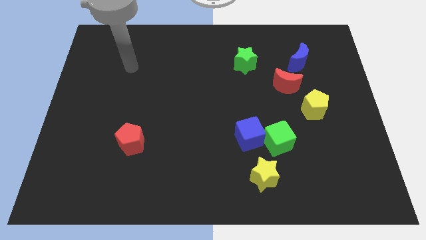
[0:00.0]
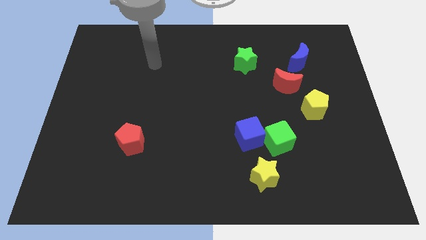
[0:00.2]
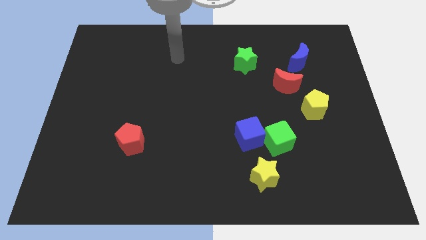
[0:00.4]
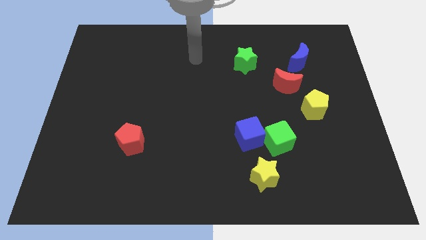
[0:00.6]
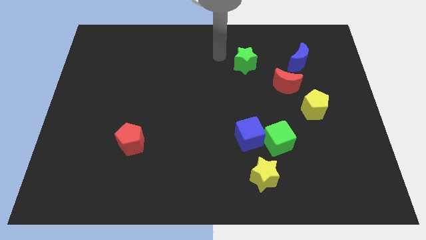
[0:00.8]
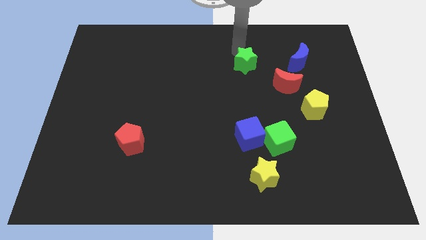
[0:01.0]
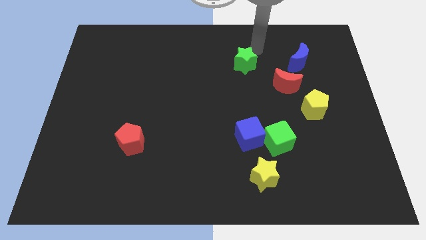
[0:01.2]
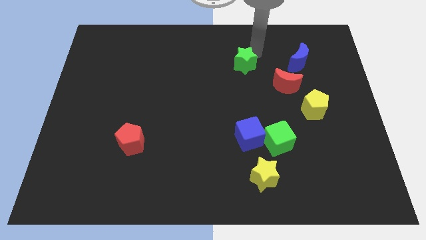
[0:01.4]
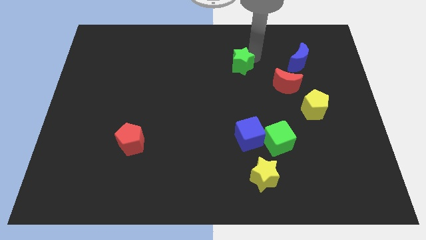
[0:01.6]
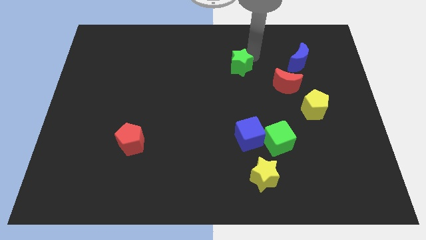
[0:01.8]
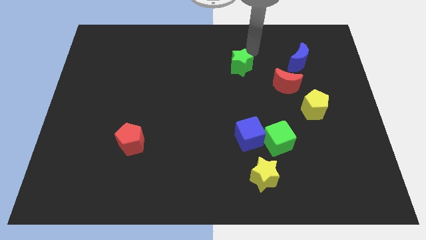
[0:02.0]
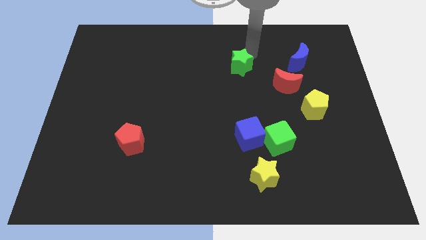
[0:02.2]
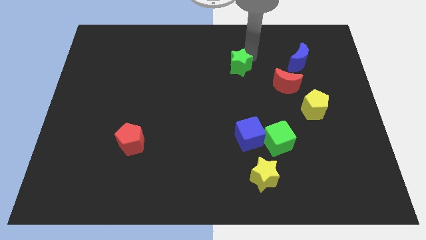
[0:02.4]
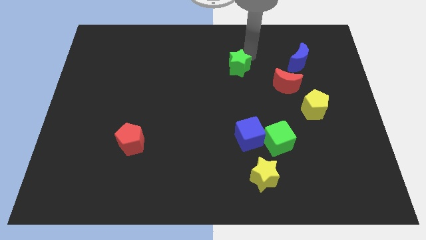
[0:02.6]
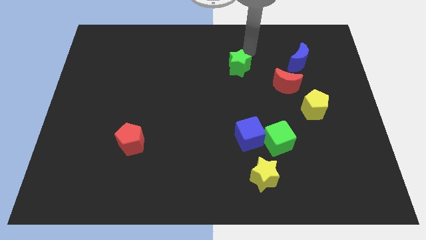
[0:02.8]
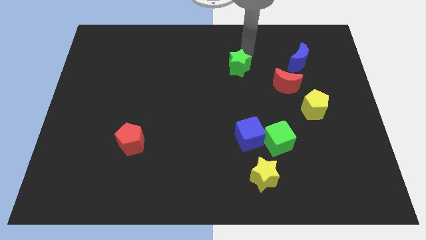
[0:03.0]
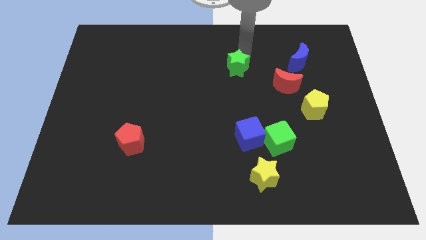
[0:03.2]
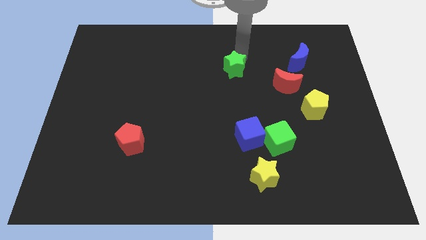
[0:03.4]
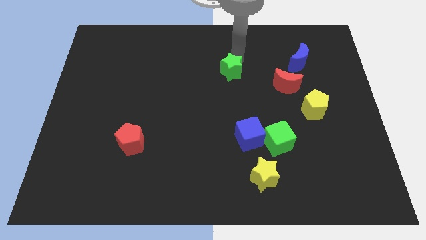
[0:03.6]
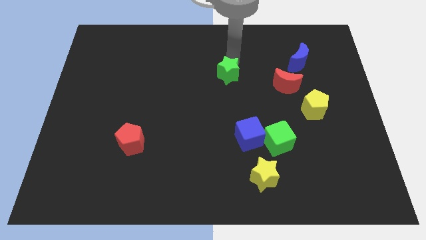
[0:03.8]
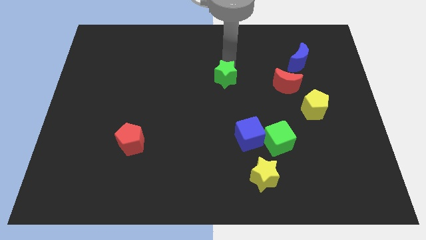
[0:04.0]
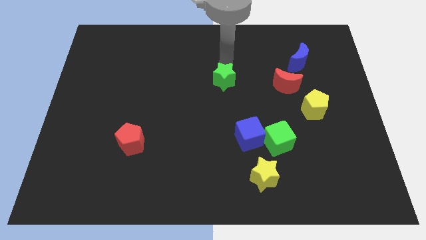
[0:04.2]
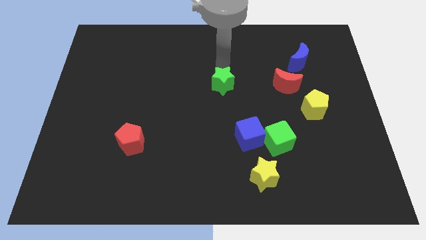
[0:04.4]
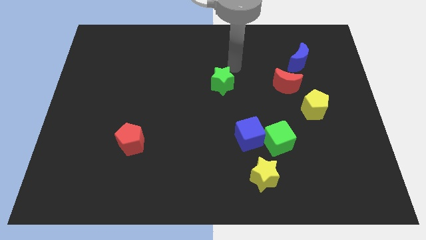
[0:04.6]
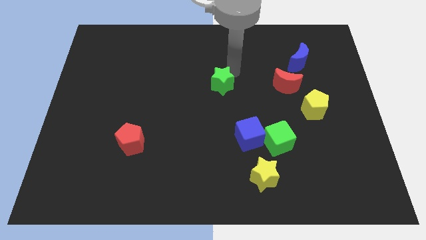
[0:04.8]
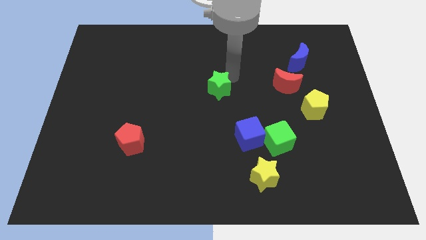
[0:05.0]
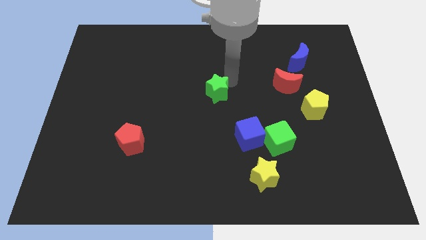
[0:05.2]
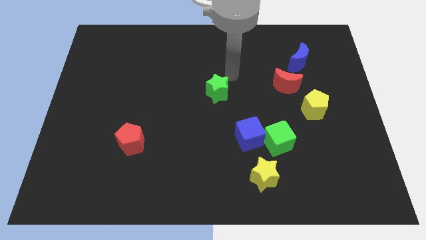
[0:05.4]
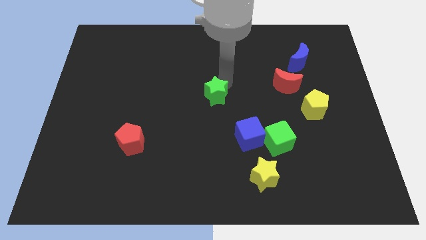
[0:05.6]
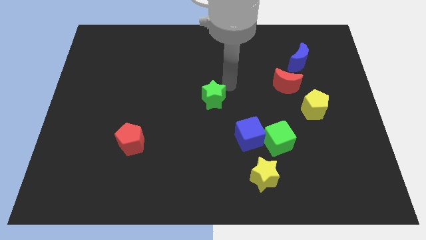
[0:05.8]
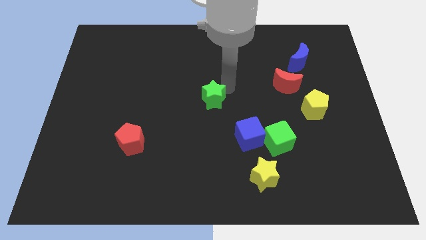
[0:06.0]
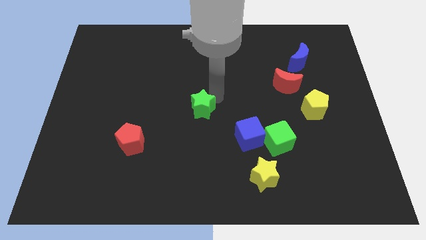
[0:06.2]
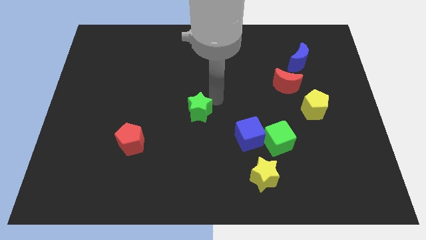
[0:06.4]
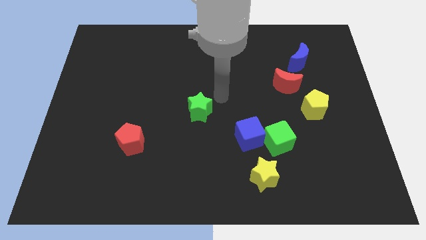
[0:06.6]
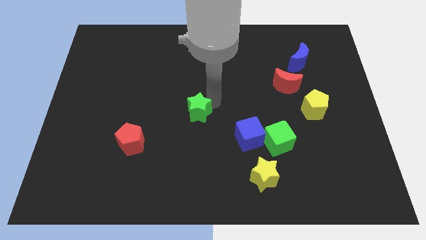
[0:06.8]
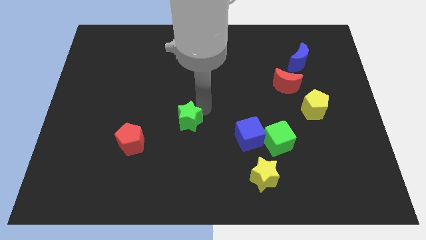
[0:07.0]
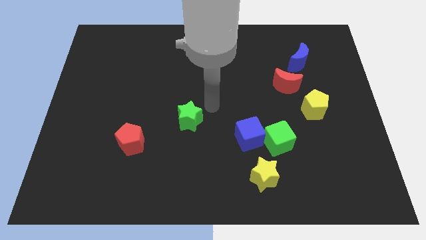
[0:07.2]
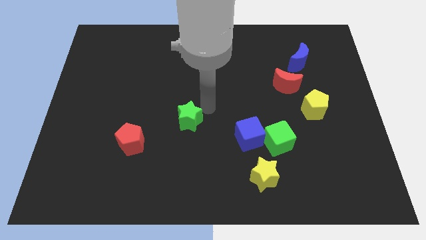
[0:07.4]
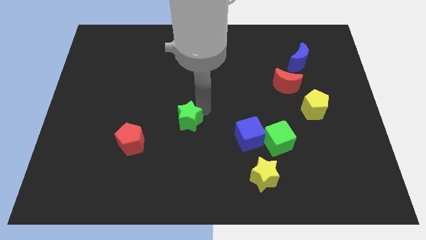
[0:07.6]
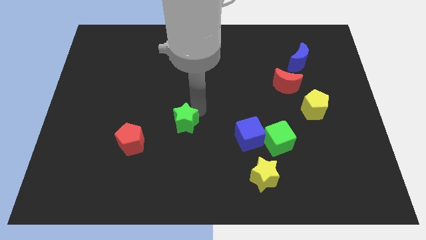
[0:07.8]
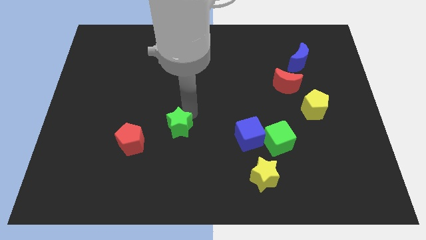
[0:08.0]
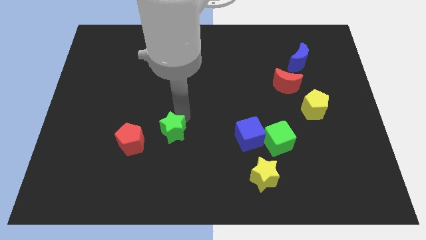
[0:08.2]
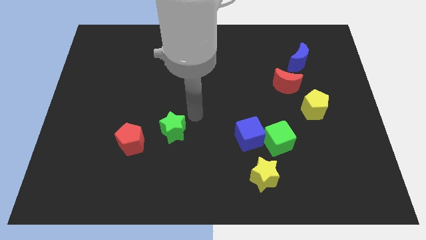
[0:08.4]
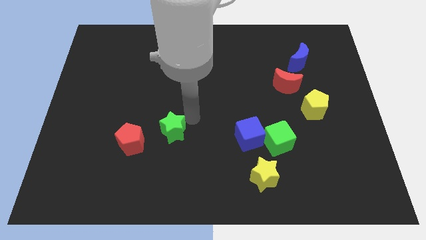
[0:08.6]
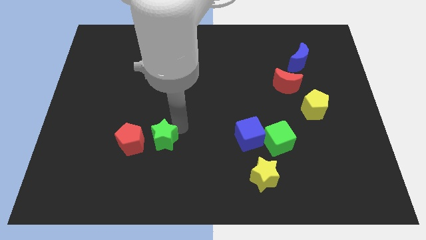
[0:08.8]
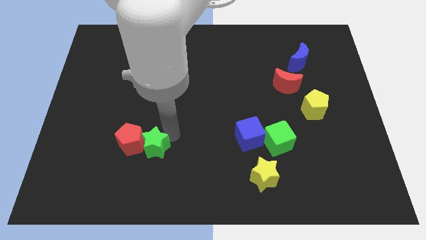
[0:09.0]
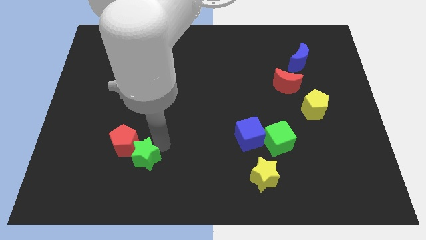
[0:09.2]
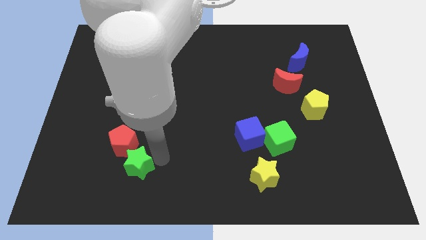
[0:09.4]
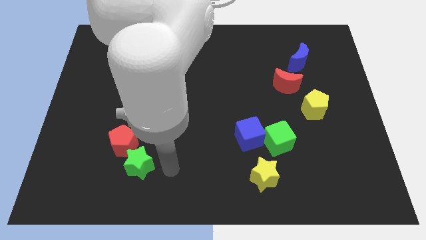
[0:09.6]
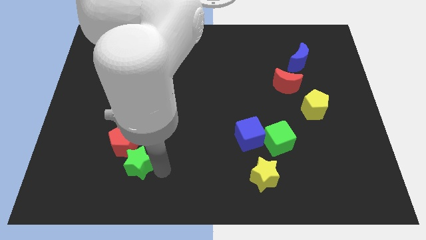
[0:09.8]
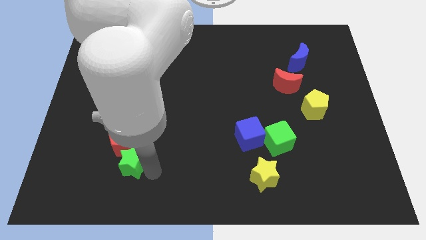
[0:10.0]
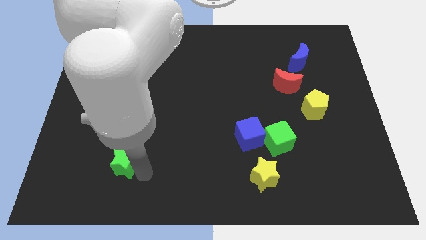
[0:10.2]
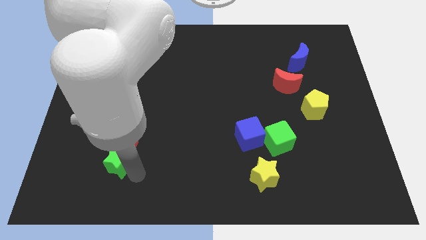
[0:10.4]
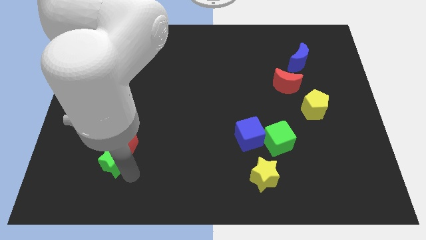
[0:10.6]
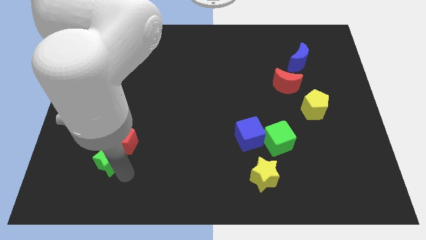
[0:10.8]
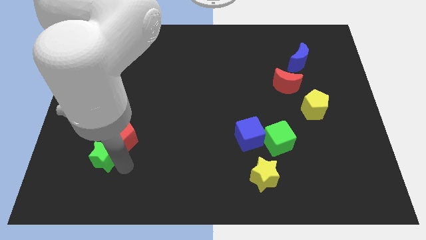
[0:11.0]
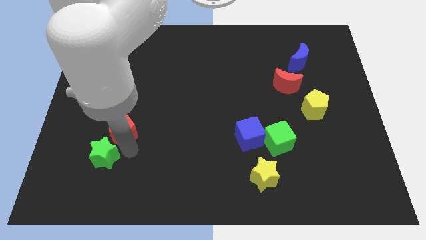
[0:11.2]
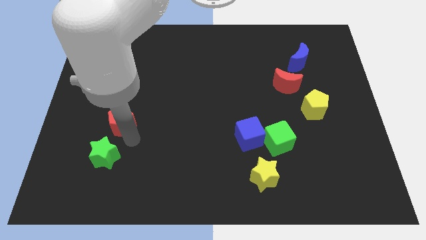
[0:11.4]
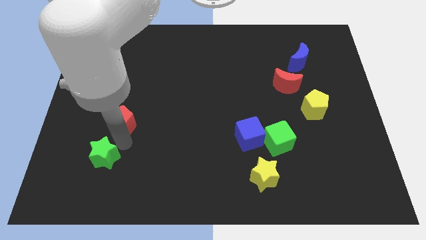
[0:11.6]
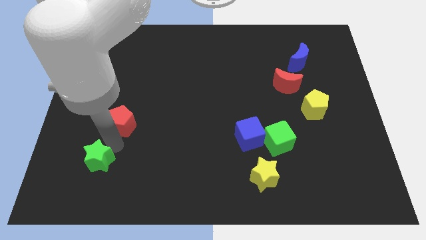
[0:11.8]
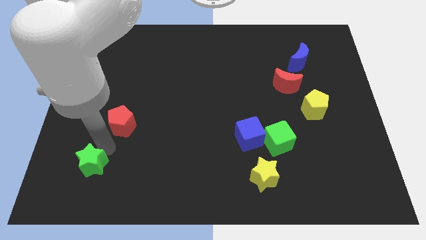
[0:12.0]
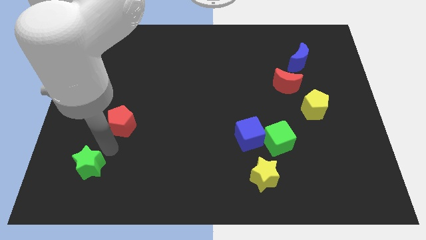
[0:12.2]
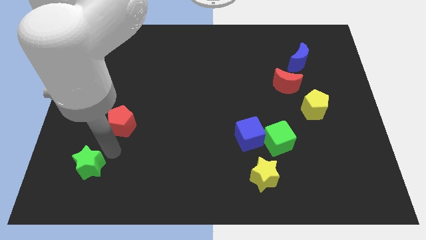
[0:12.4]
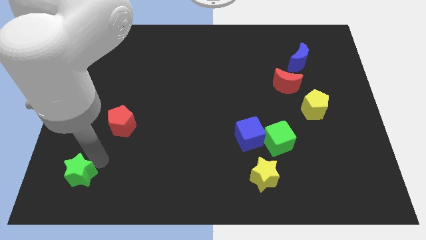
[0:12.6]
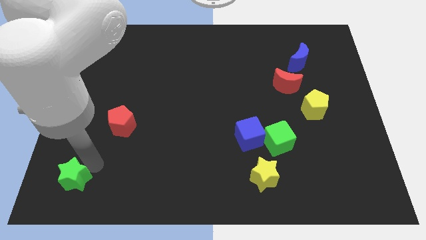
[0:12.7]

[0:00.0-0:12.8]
slide the green star to the bottom left corner
